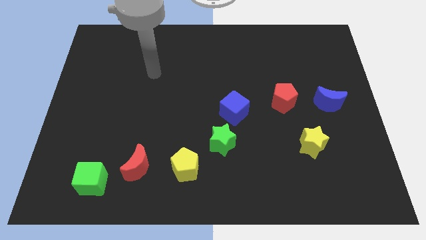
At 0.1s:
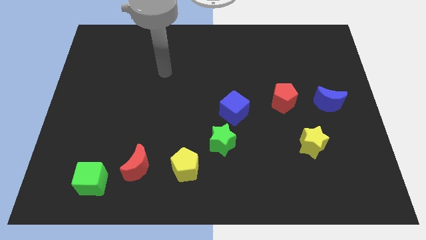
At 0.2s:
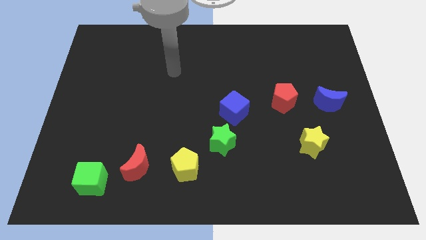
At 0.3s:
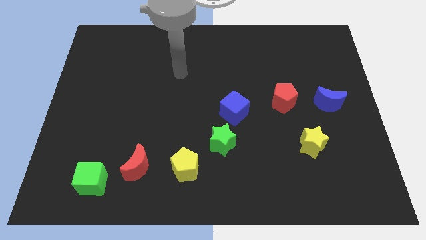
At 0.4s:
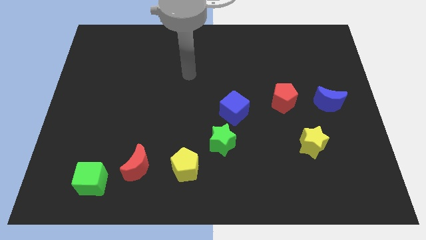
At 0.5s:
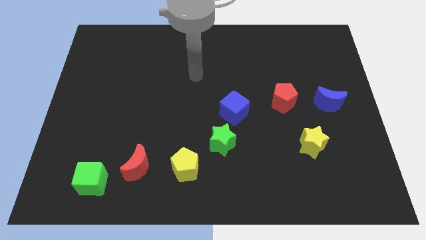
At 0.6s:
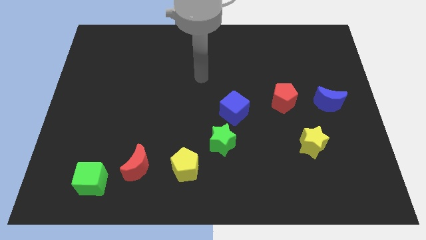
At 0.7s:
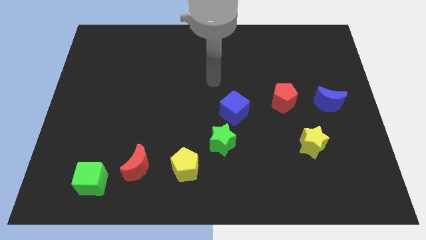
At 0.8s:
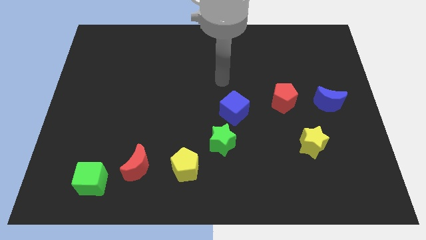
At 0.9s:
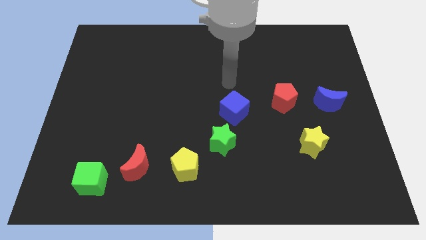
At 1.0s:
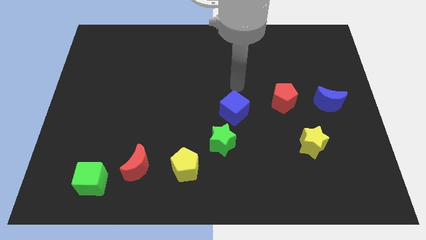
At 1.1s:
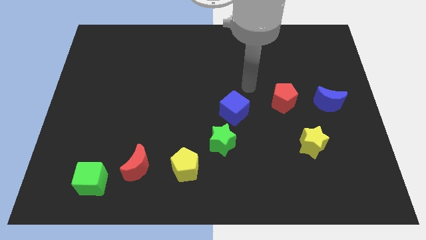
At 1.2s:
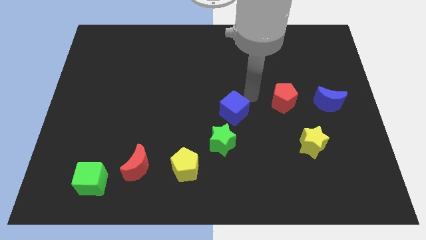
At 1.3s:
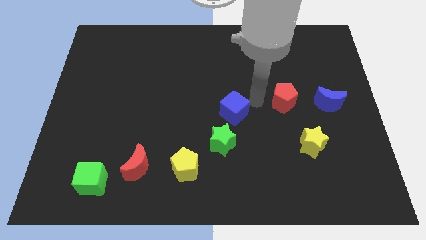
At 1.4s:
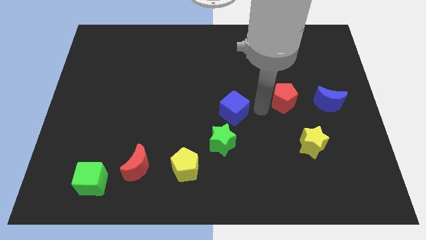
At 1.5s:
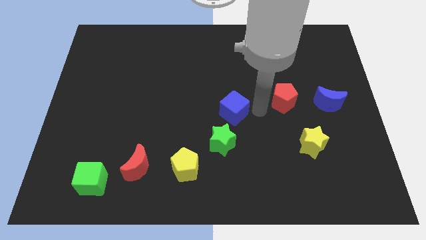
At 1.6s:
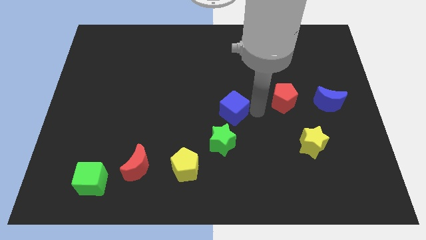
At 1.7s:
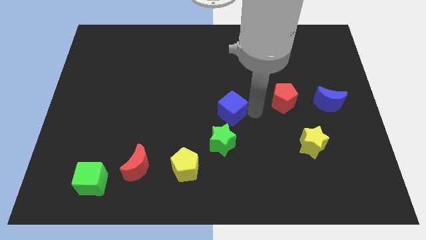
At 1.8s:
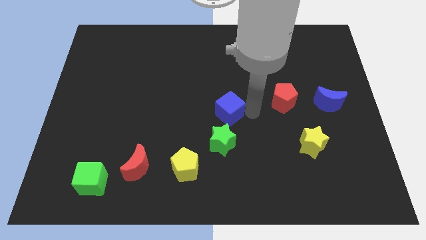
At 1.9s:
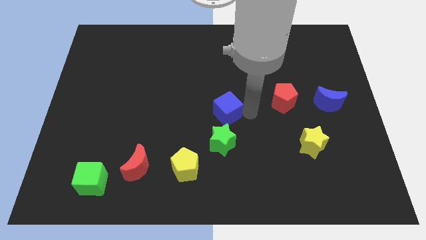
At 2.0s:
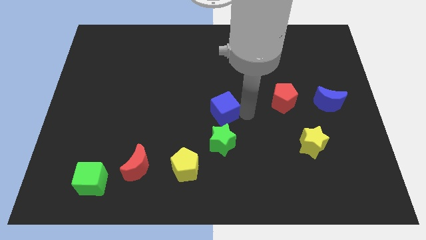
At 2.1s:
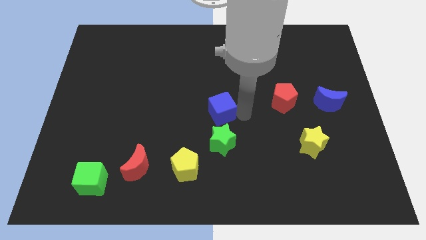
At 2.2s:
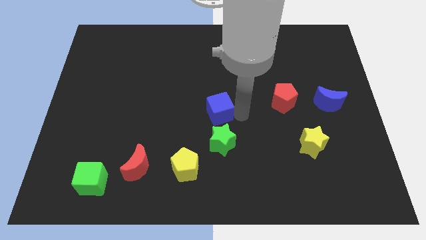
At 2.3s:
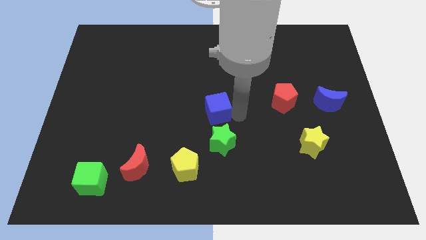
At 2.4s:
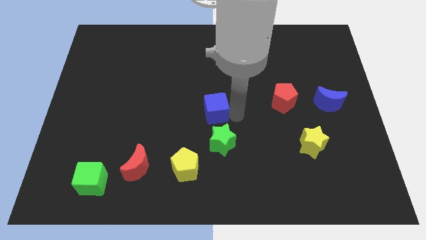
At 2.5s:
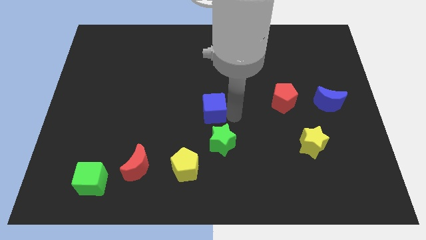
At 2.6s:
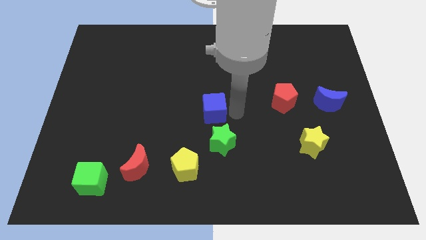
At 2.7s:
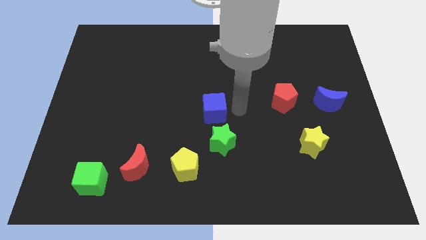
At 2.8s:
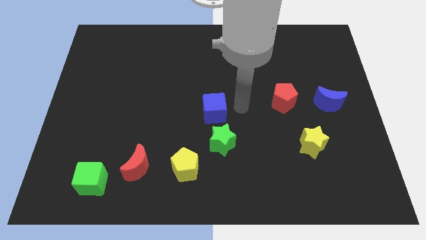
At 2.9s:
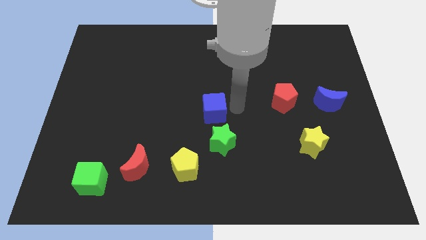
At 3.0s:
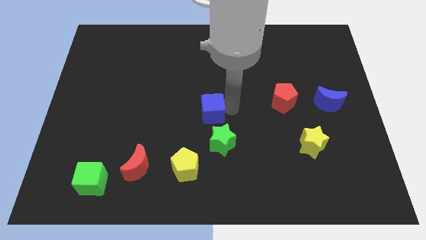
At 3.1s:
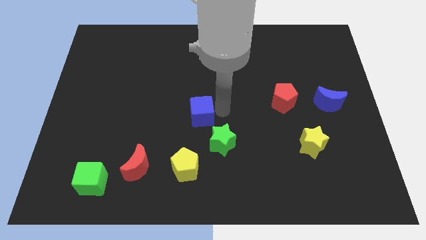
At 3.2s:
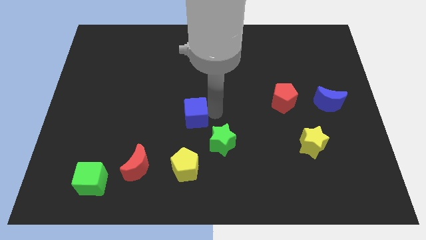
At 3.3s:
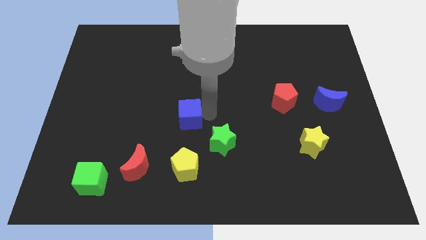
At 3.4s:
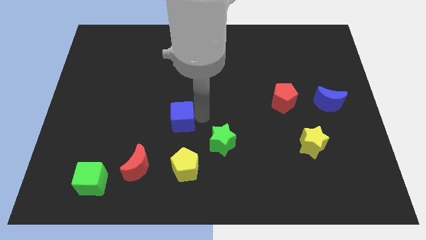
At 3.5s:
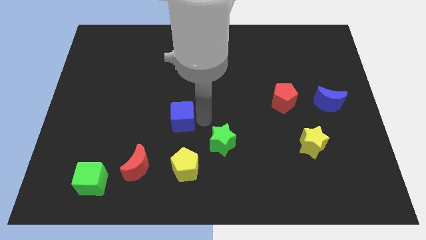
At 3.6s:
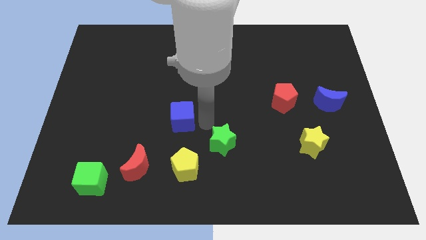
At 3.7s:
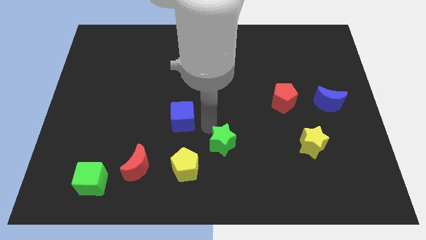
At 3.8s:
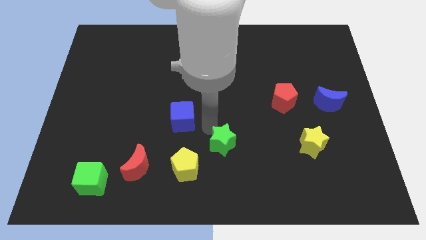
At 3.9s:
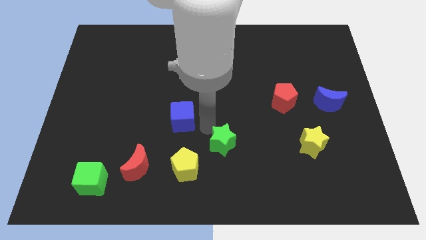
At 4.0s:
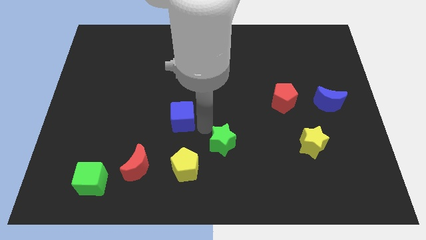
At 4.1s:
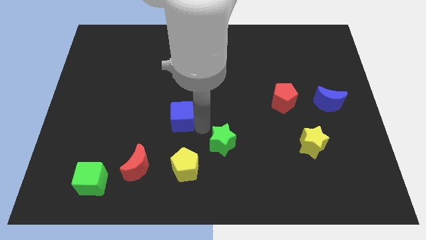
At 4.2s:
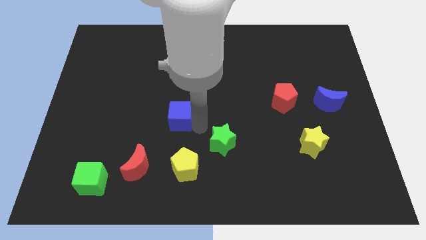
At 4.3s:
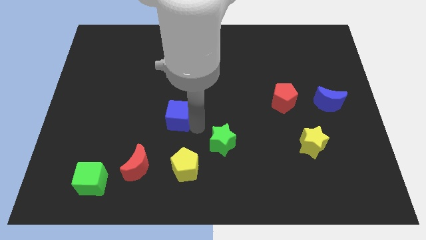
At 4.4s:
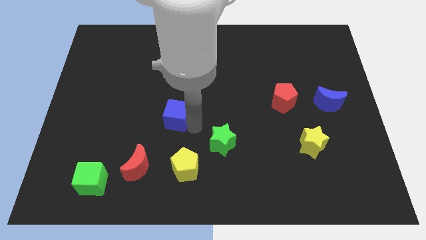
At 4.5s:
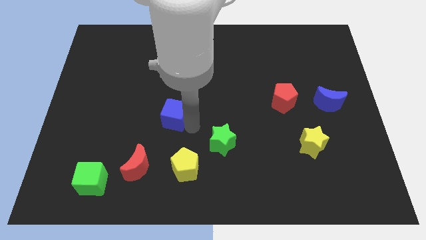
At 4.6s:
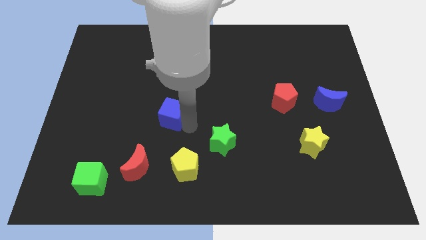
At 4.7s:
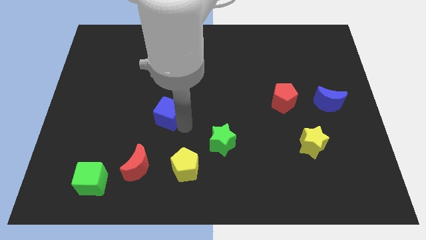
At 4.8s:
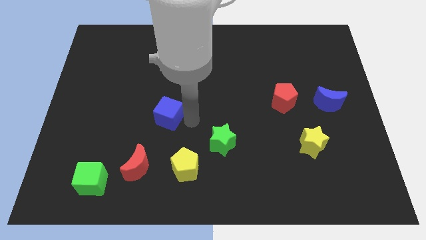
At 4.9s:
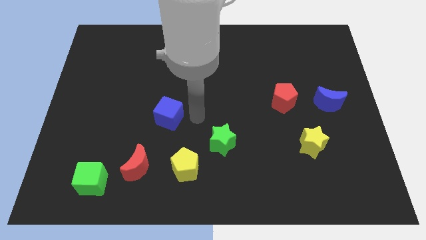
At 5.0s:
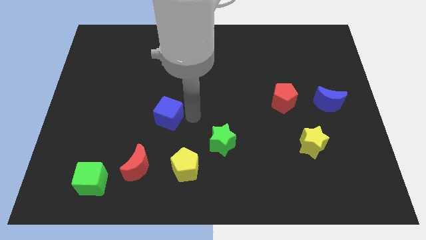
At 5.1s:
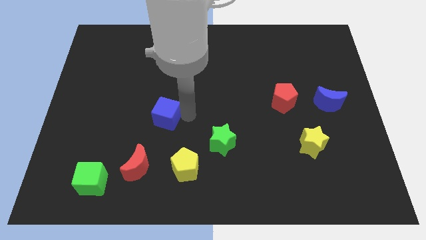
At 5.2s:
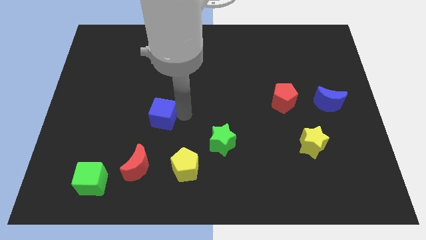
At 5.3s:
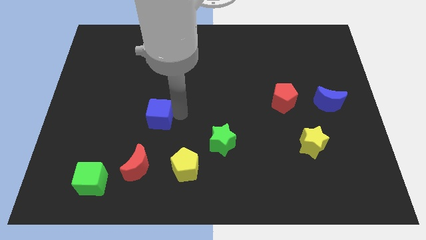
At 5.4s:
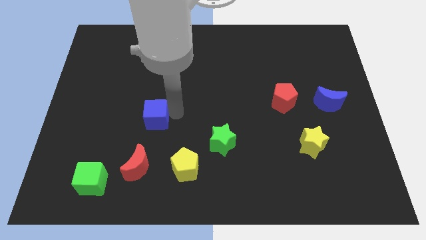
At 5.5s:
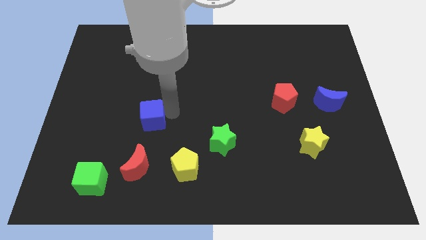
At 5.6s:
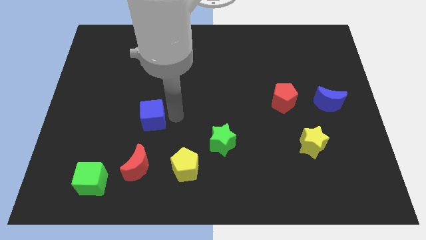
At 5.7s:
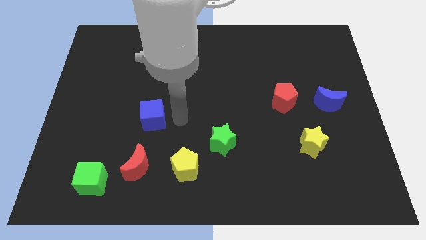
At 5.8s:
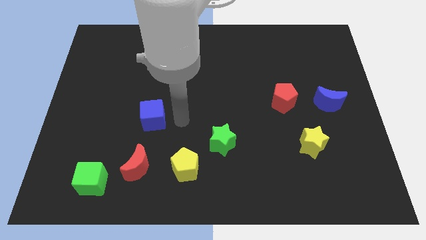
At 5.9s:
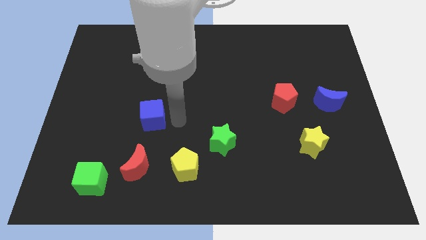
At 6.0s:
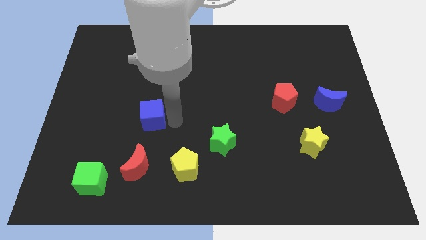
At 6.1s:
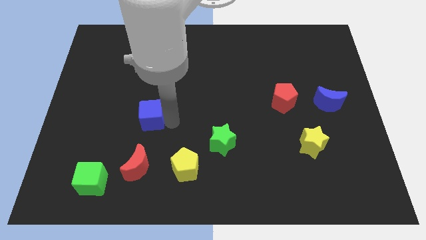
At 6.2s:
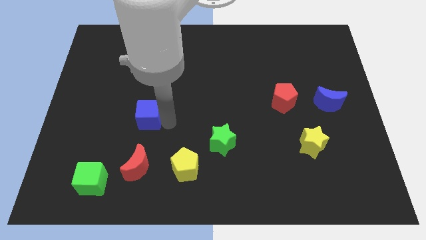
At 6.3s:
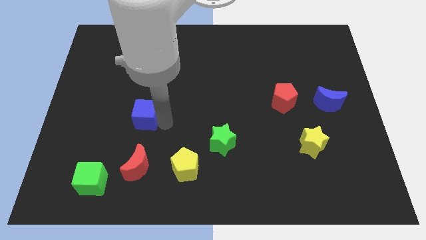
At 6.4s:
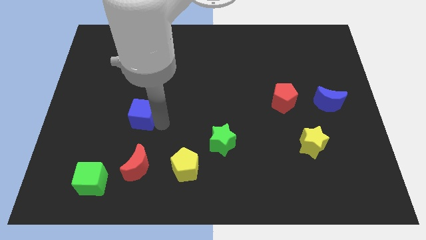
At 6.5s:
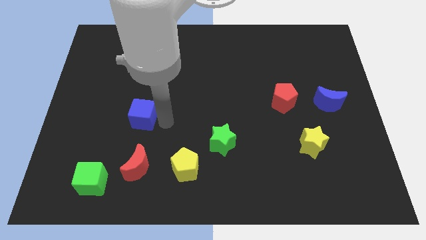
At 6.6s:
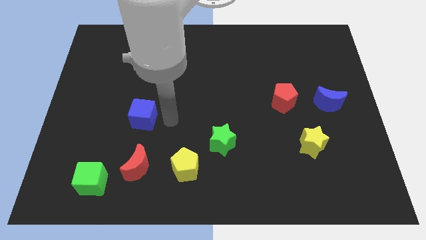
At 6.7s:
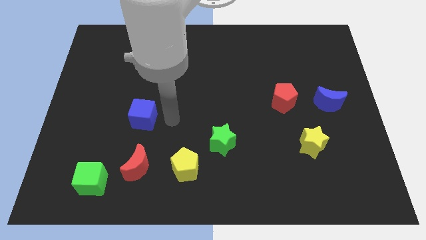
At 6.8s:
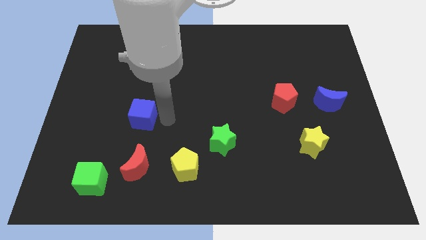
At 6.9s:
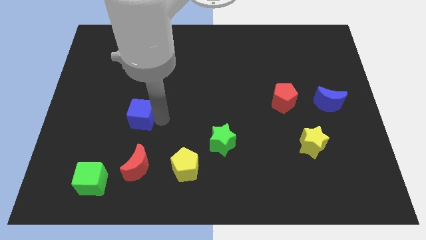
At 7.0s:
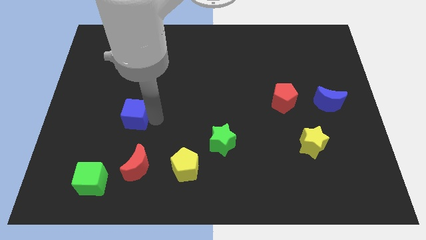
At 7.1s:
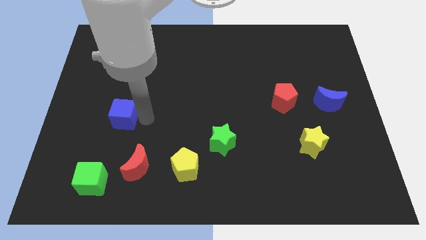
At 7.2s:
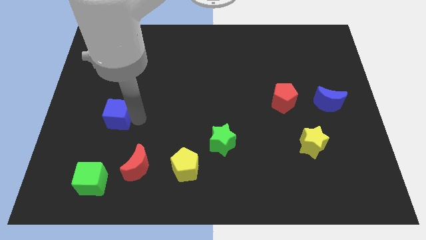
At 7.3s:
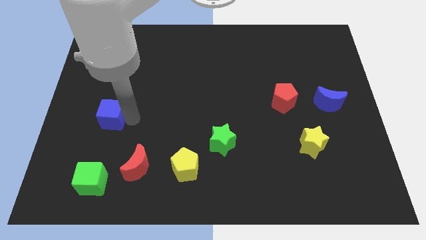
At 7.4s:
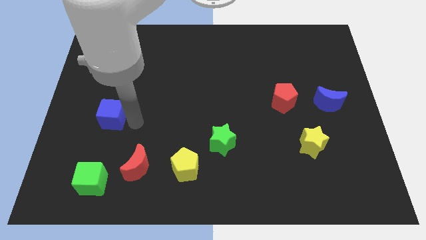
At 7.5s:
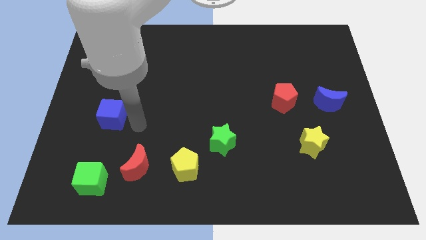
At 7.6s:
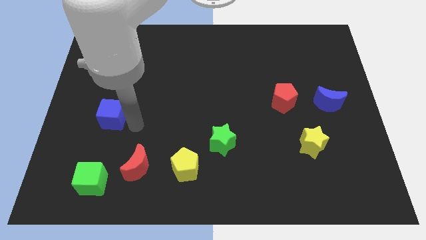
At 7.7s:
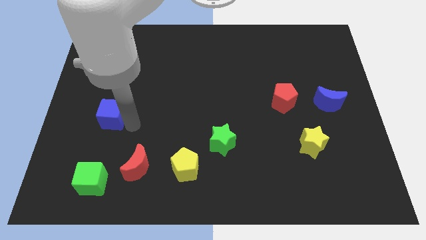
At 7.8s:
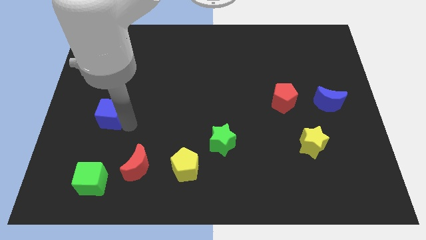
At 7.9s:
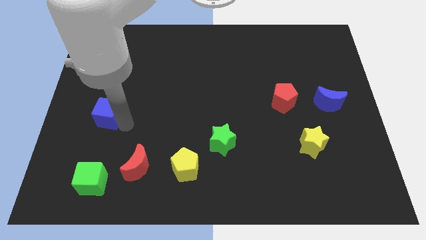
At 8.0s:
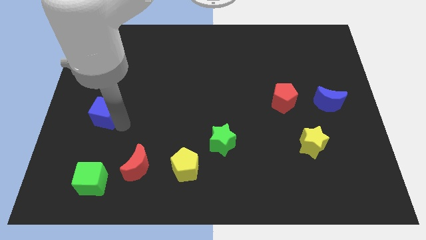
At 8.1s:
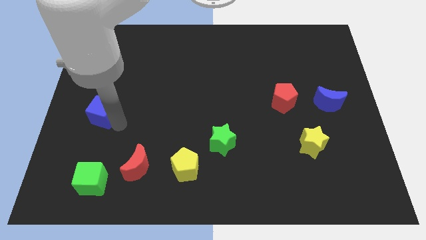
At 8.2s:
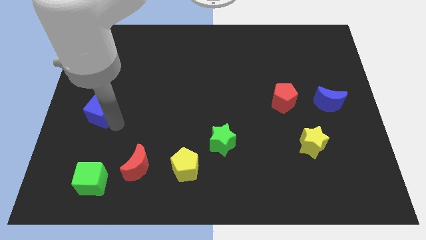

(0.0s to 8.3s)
push the blue cube to the left side
